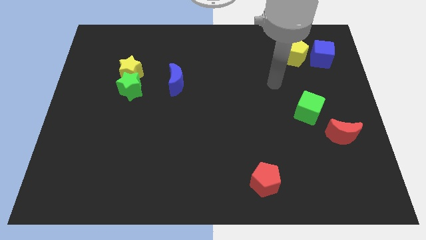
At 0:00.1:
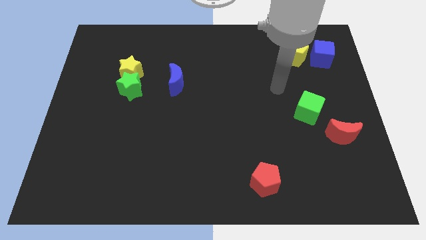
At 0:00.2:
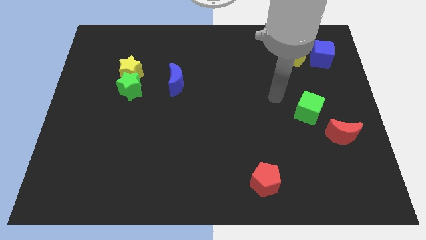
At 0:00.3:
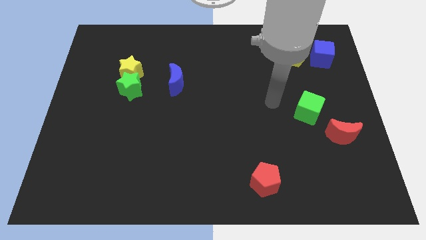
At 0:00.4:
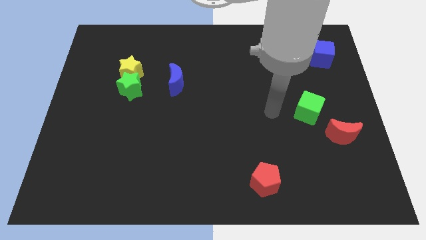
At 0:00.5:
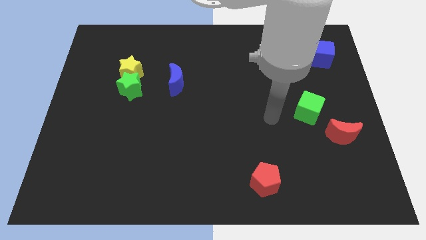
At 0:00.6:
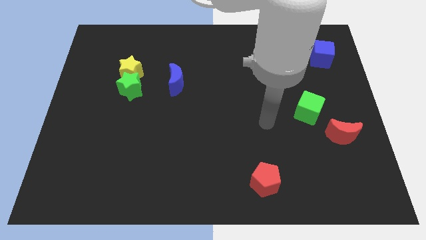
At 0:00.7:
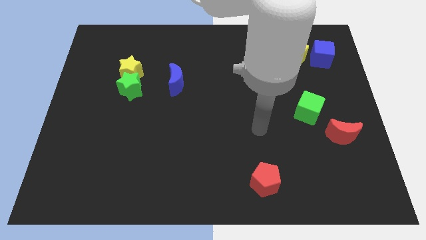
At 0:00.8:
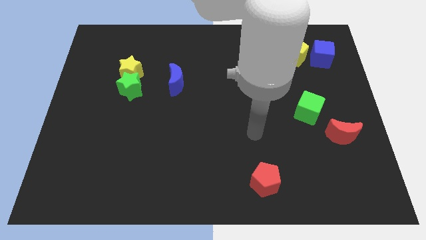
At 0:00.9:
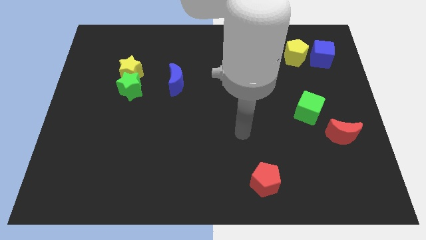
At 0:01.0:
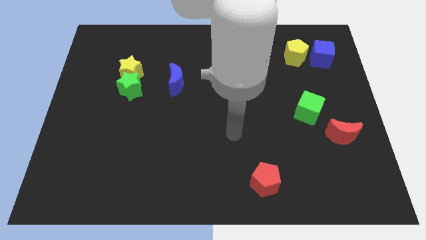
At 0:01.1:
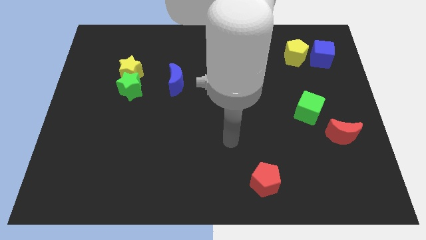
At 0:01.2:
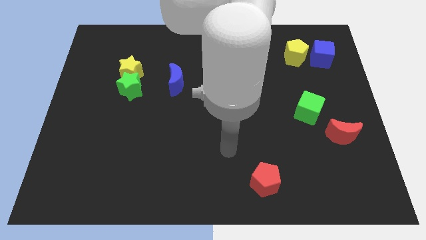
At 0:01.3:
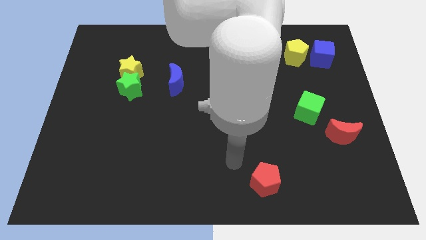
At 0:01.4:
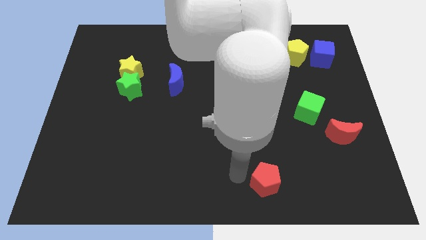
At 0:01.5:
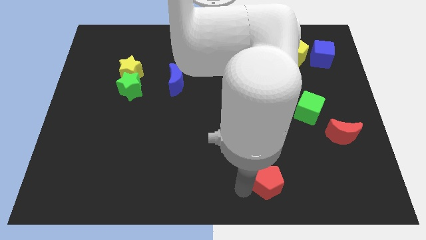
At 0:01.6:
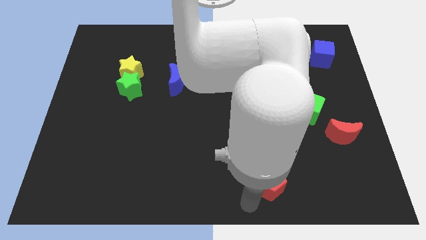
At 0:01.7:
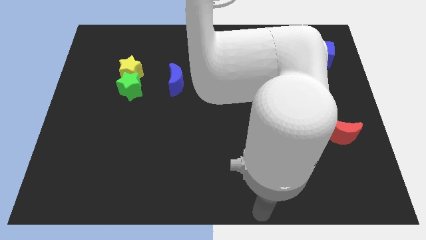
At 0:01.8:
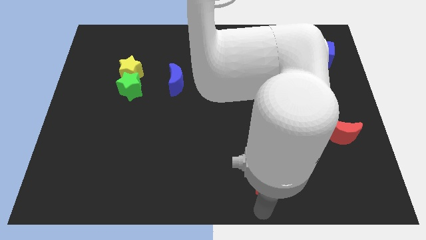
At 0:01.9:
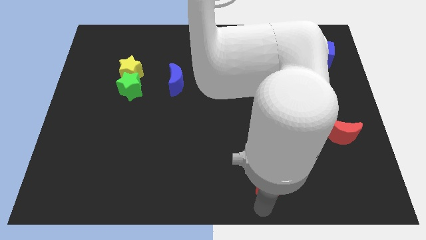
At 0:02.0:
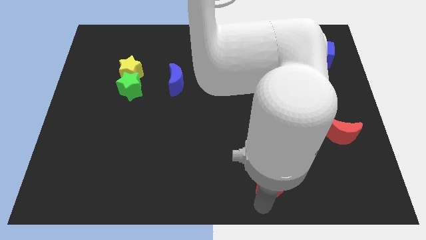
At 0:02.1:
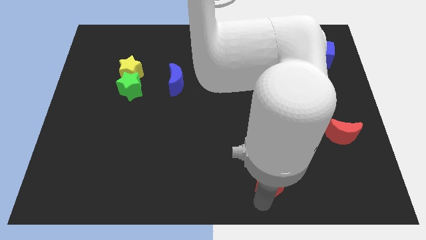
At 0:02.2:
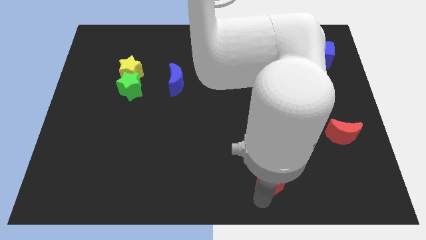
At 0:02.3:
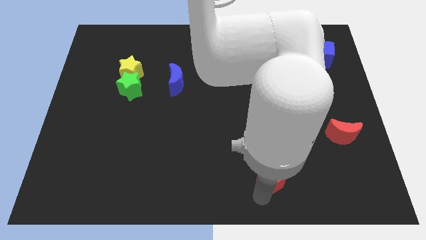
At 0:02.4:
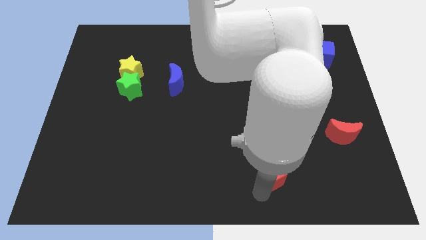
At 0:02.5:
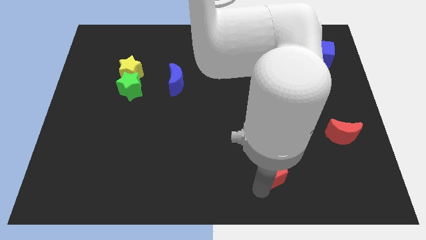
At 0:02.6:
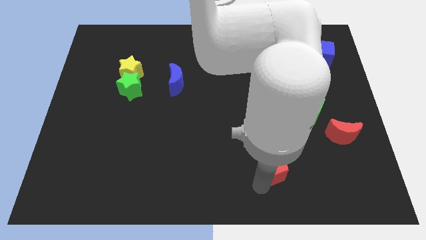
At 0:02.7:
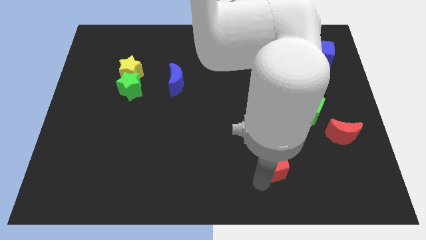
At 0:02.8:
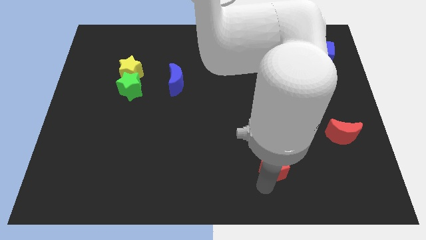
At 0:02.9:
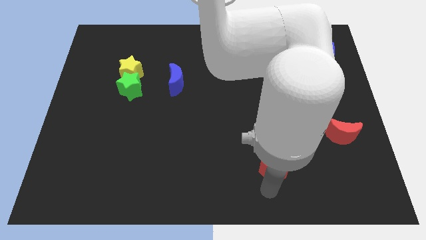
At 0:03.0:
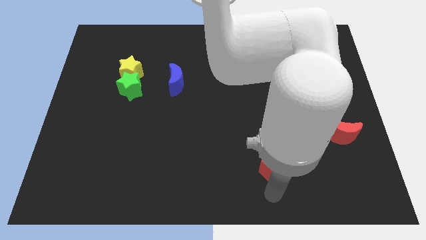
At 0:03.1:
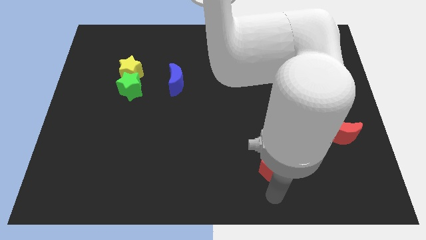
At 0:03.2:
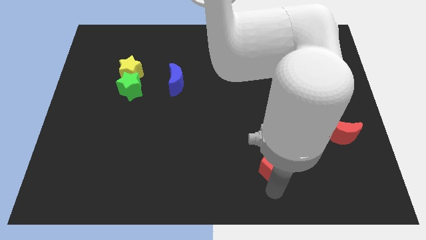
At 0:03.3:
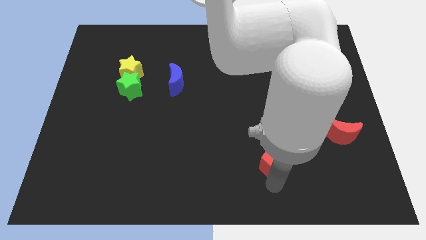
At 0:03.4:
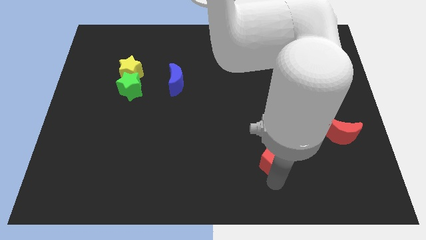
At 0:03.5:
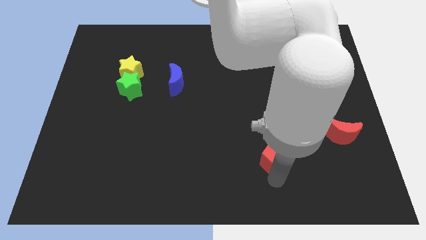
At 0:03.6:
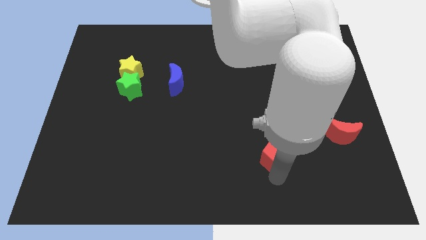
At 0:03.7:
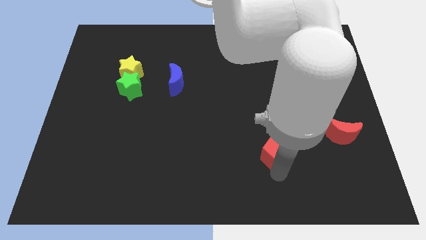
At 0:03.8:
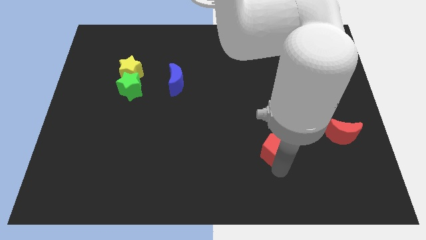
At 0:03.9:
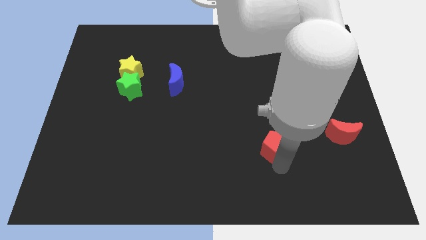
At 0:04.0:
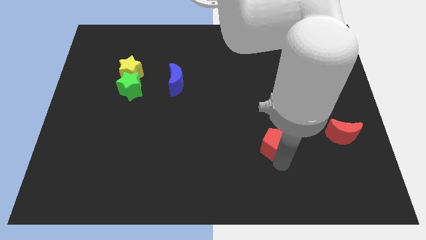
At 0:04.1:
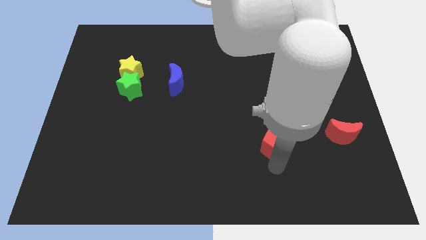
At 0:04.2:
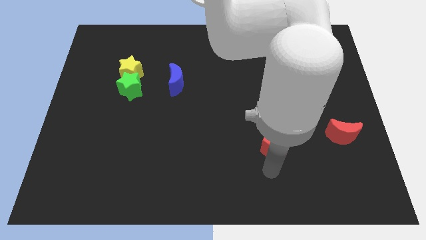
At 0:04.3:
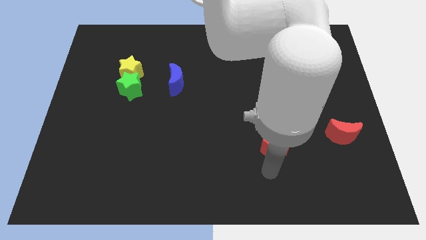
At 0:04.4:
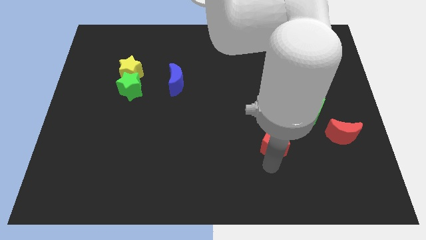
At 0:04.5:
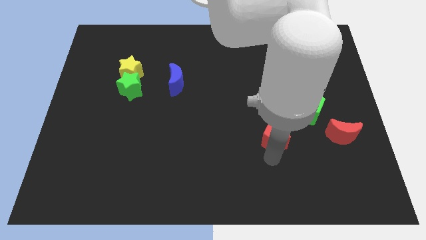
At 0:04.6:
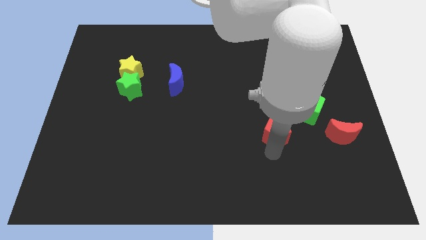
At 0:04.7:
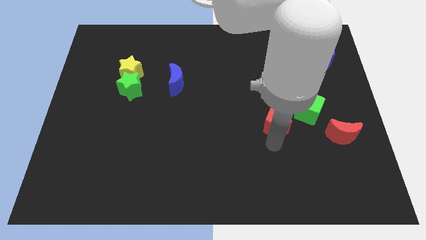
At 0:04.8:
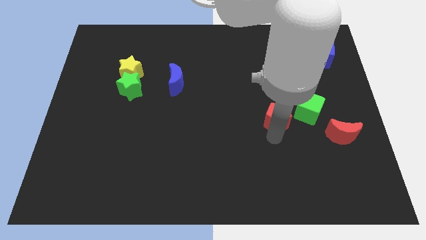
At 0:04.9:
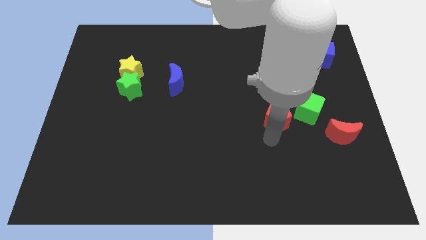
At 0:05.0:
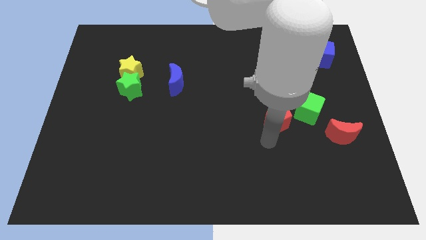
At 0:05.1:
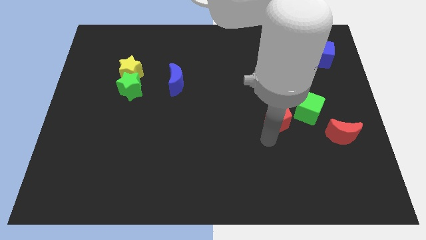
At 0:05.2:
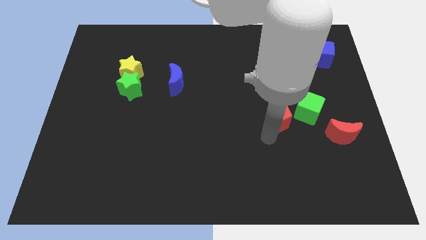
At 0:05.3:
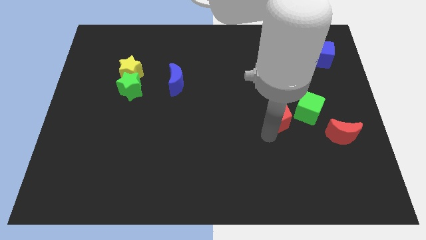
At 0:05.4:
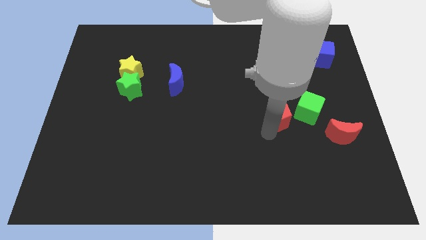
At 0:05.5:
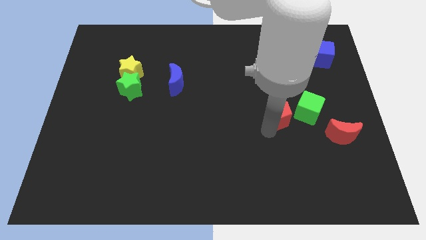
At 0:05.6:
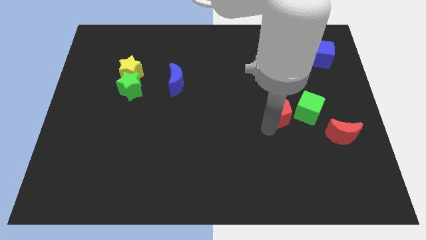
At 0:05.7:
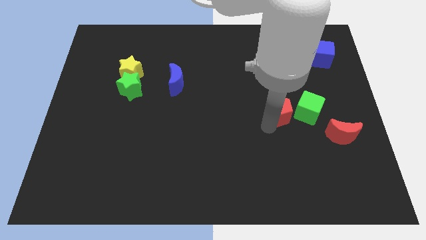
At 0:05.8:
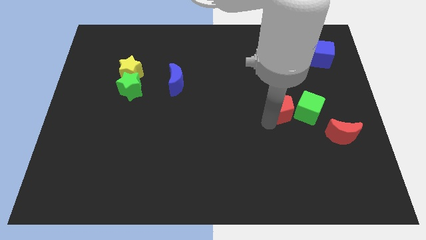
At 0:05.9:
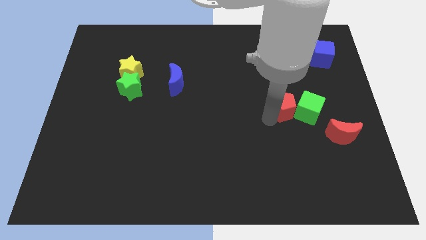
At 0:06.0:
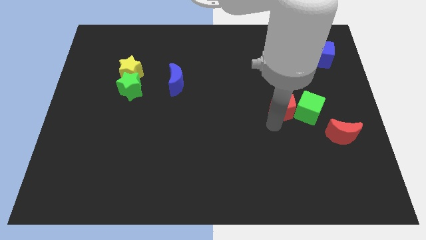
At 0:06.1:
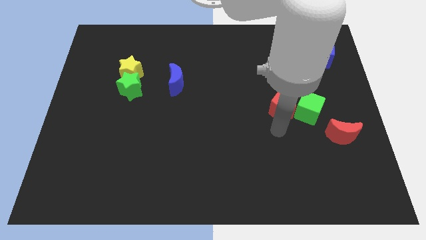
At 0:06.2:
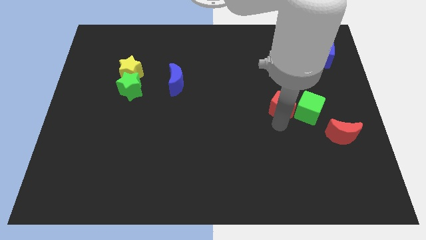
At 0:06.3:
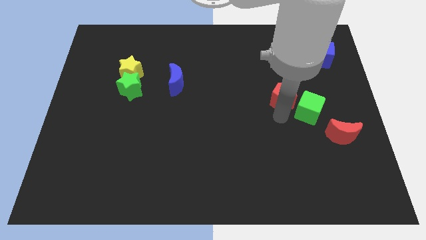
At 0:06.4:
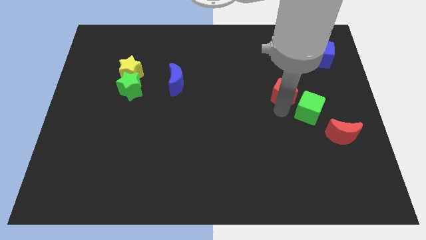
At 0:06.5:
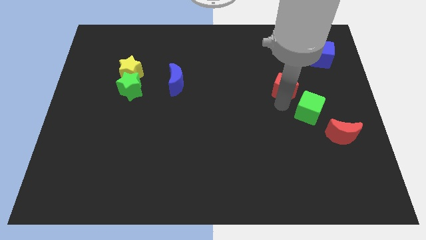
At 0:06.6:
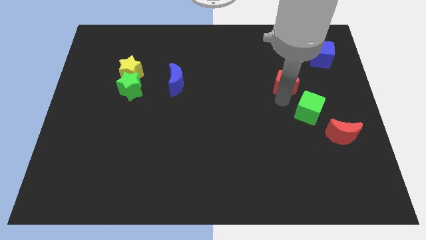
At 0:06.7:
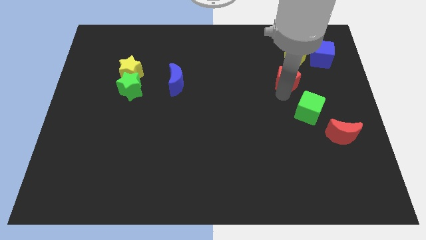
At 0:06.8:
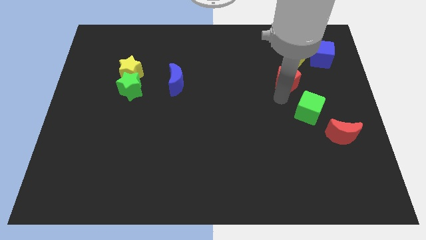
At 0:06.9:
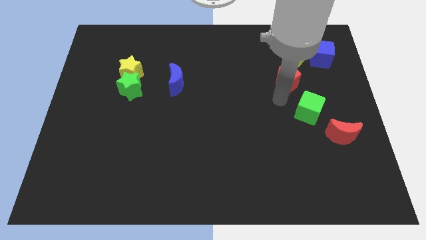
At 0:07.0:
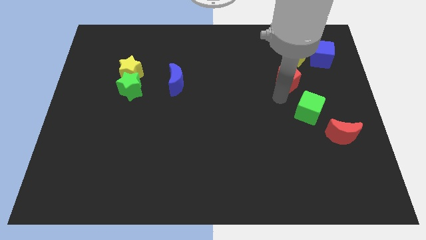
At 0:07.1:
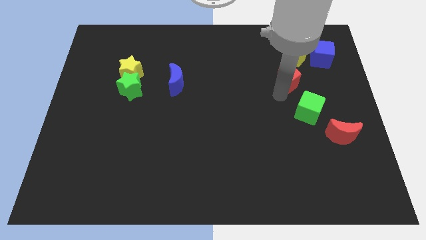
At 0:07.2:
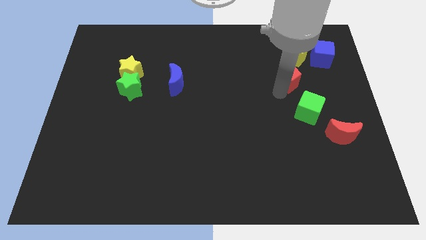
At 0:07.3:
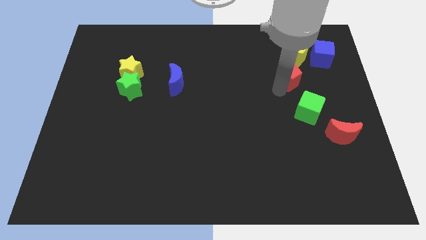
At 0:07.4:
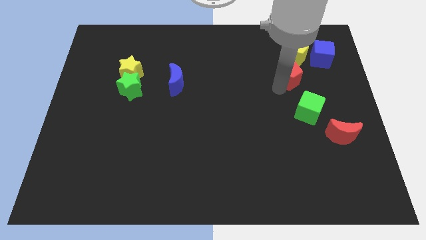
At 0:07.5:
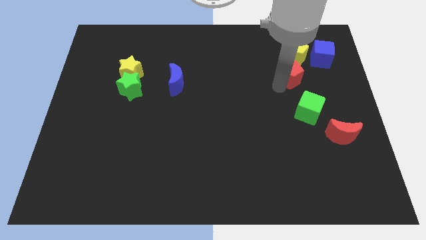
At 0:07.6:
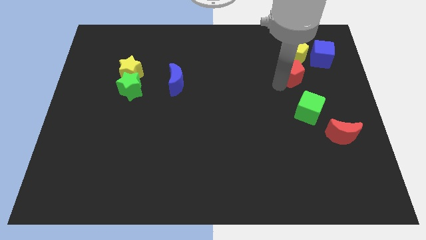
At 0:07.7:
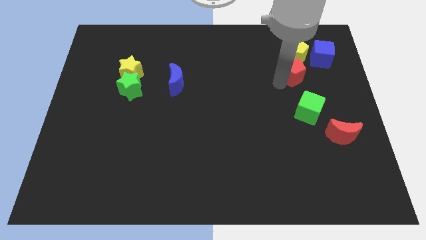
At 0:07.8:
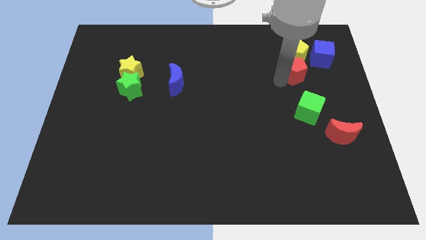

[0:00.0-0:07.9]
move the red pentagon next to the yellow pentagon

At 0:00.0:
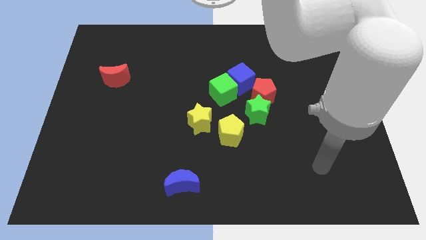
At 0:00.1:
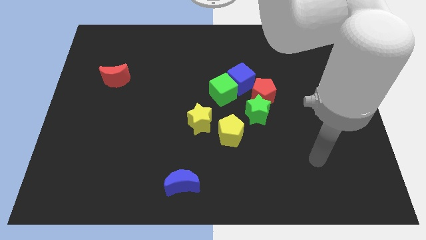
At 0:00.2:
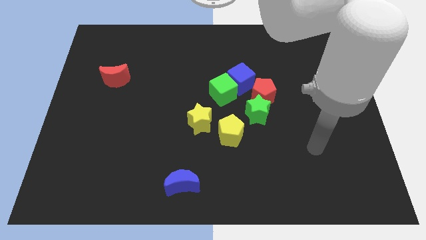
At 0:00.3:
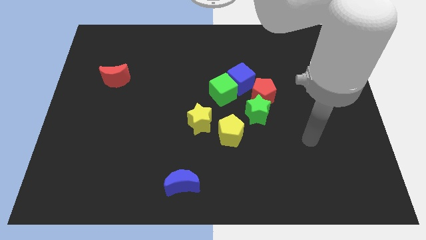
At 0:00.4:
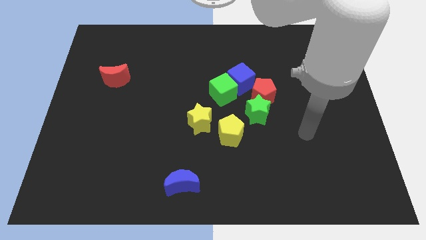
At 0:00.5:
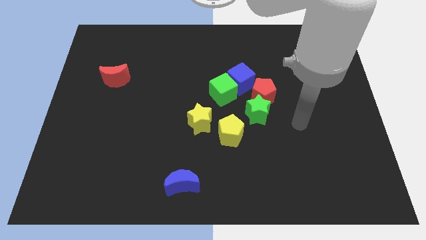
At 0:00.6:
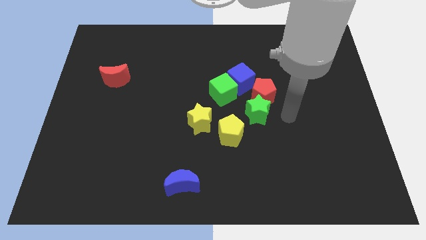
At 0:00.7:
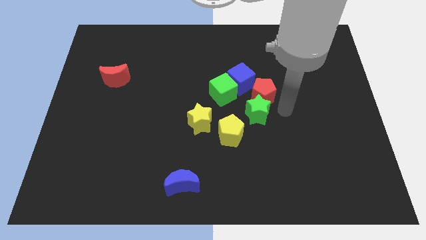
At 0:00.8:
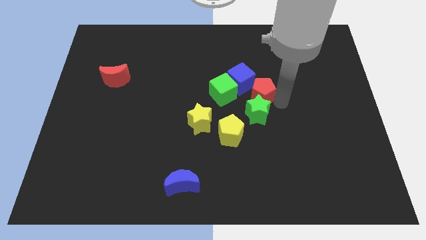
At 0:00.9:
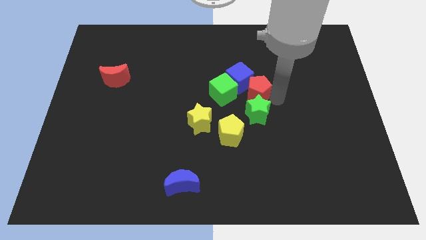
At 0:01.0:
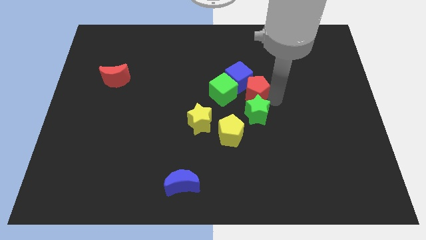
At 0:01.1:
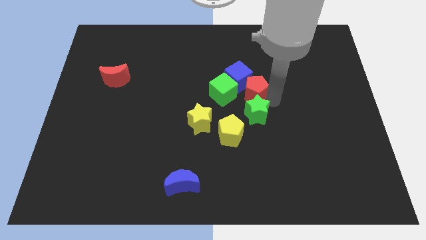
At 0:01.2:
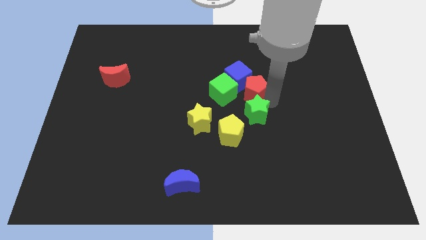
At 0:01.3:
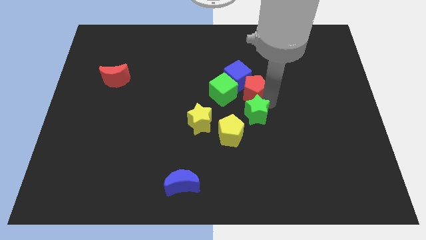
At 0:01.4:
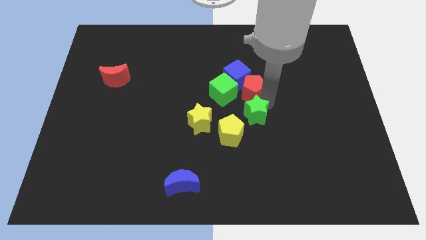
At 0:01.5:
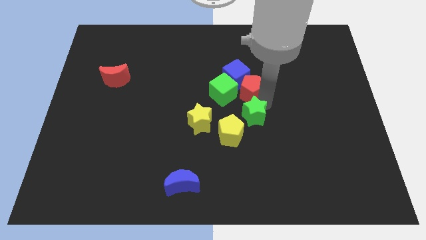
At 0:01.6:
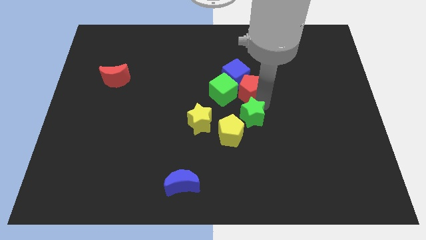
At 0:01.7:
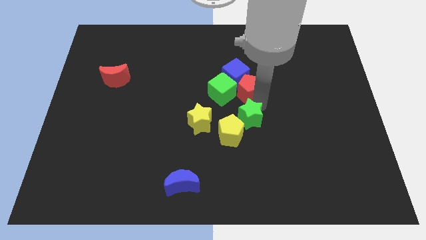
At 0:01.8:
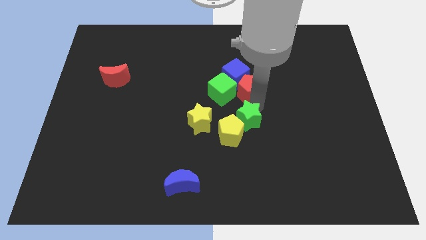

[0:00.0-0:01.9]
move the green star to the yellow pentagon
